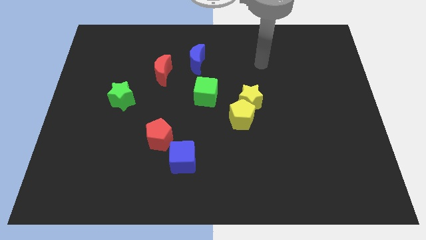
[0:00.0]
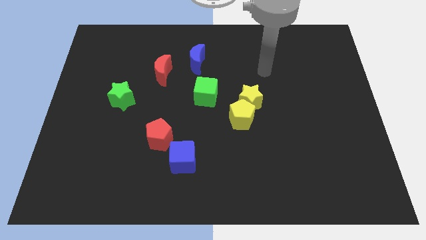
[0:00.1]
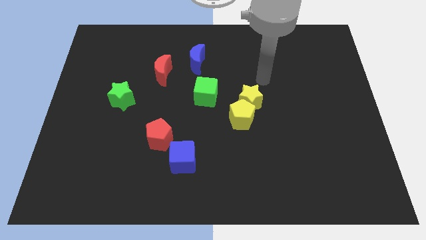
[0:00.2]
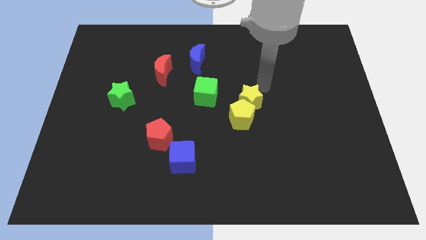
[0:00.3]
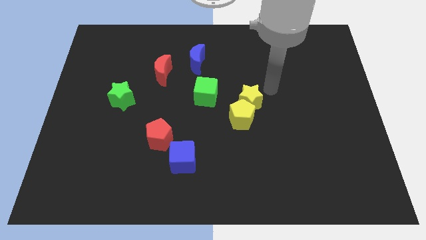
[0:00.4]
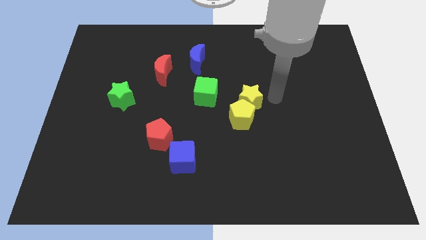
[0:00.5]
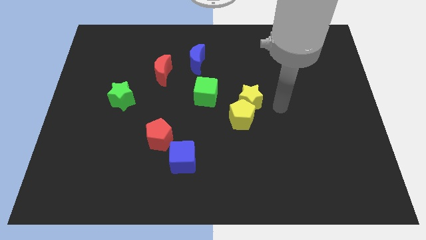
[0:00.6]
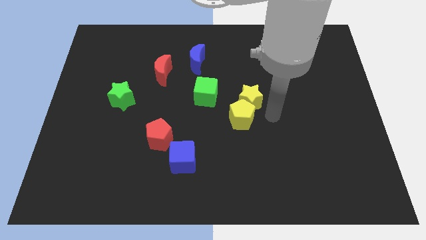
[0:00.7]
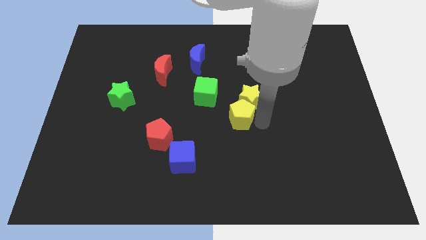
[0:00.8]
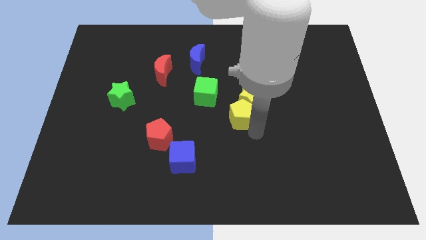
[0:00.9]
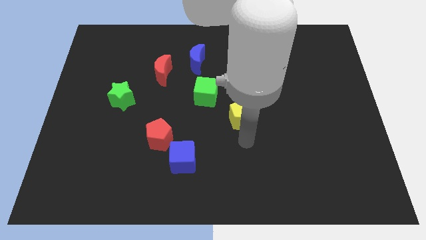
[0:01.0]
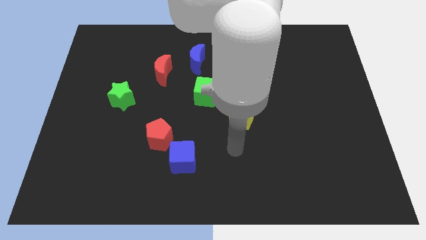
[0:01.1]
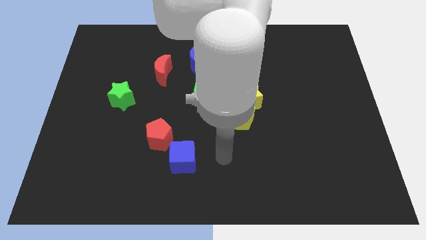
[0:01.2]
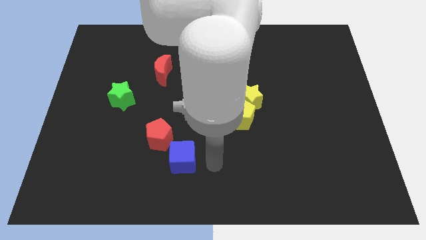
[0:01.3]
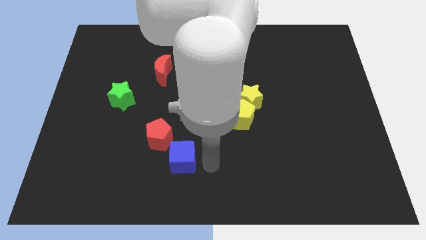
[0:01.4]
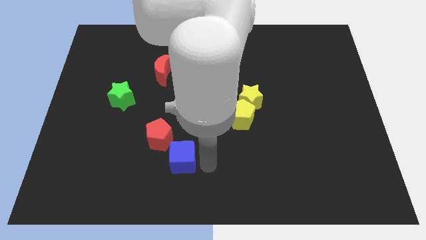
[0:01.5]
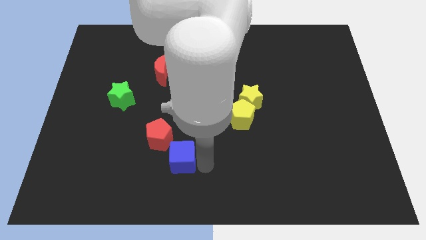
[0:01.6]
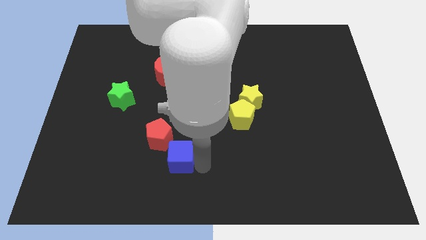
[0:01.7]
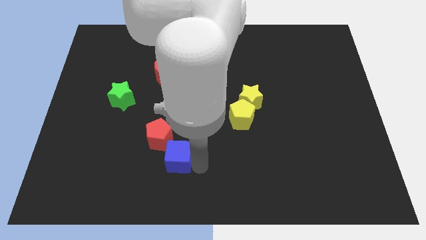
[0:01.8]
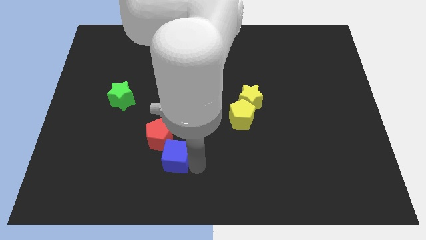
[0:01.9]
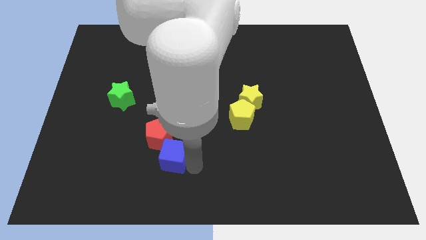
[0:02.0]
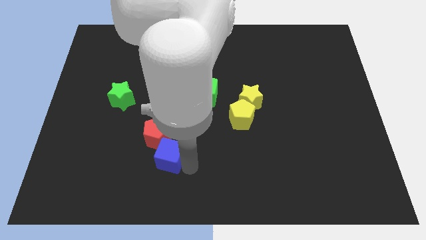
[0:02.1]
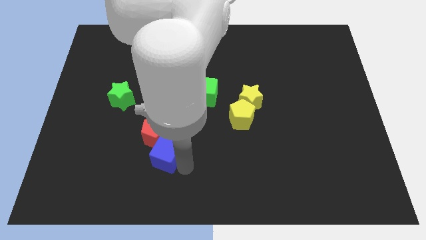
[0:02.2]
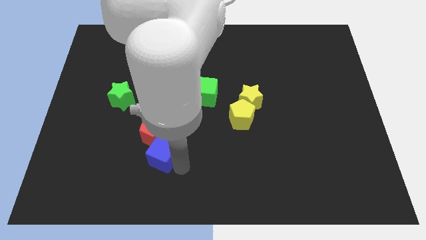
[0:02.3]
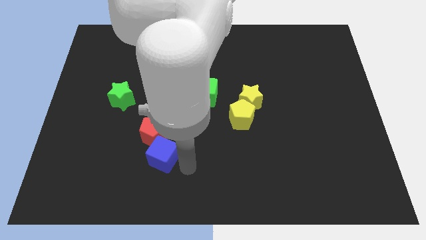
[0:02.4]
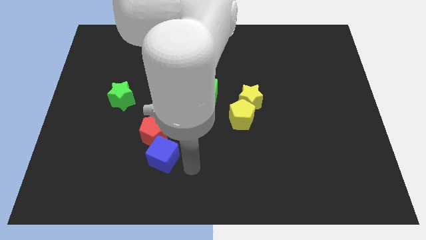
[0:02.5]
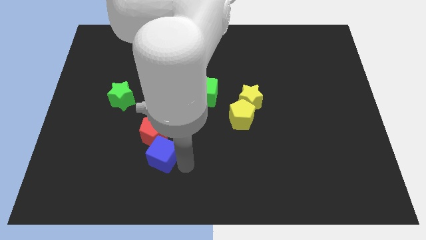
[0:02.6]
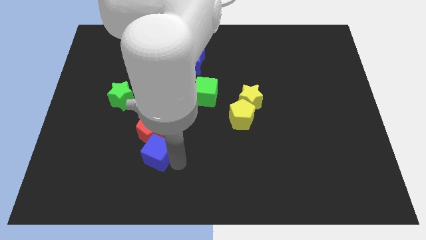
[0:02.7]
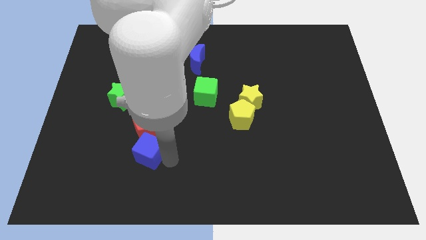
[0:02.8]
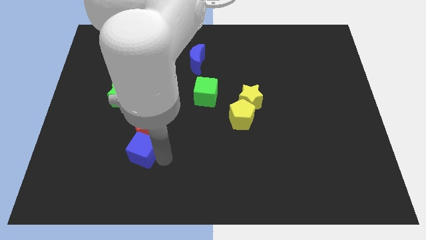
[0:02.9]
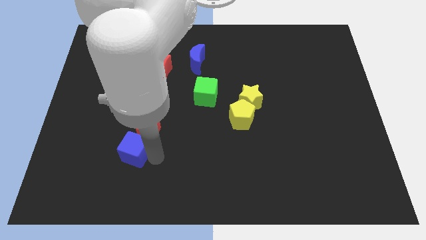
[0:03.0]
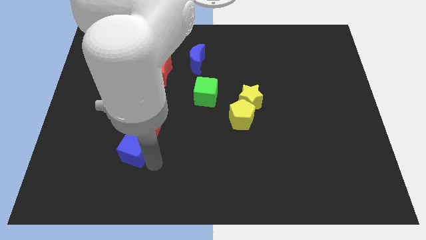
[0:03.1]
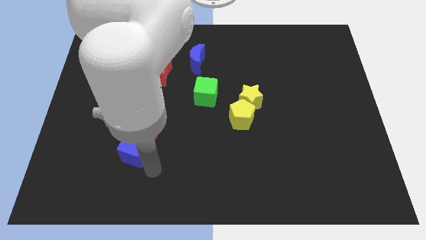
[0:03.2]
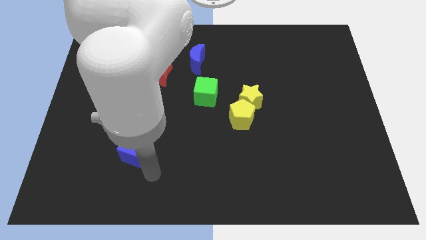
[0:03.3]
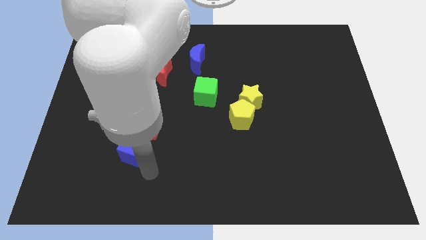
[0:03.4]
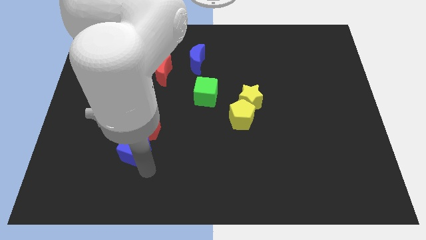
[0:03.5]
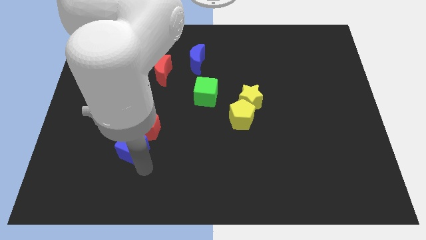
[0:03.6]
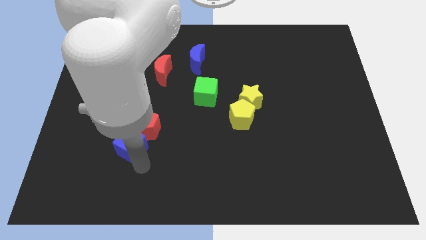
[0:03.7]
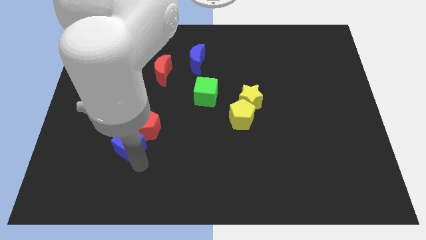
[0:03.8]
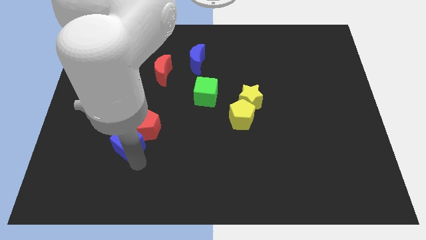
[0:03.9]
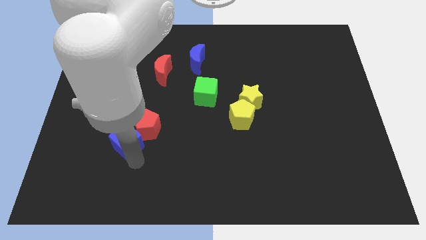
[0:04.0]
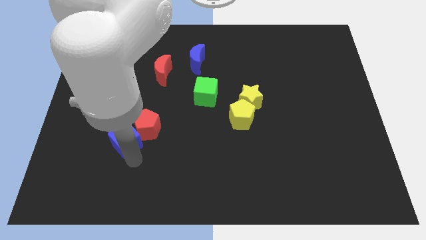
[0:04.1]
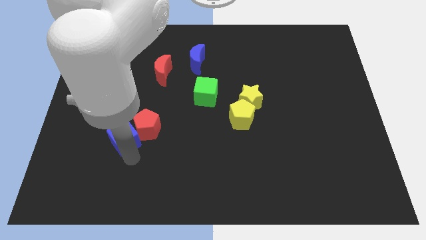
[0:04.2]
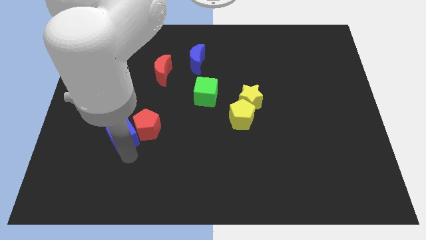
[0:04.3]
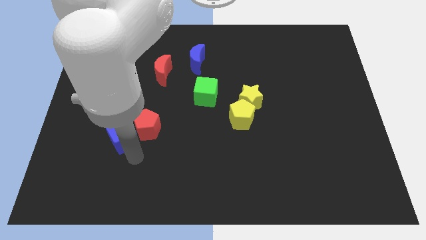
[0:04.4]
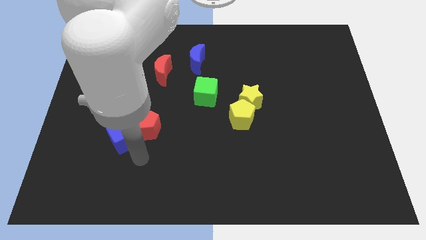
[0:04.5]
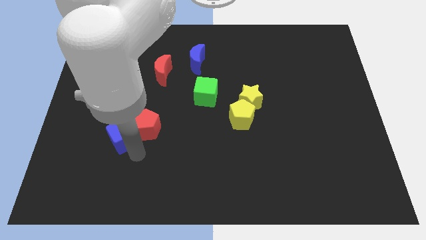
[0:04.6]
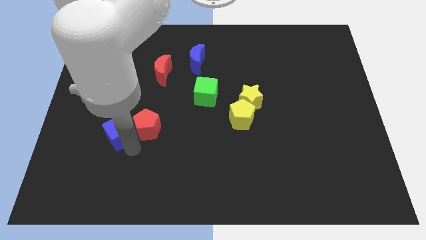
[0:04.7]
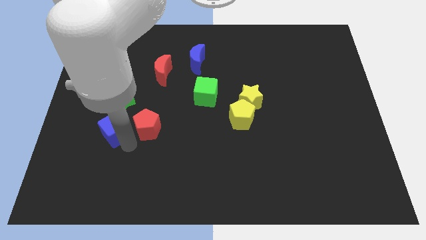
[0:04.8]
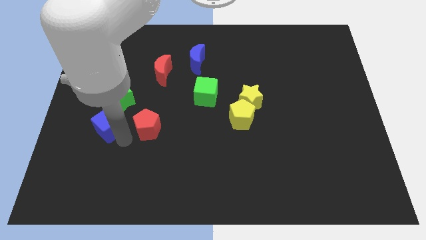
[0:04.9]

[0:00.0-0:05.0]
move the blue cube to the bottom left of the green star

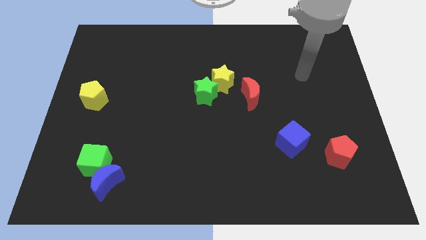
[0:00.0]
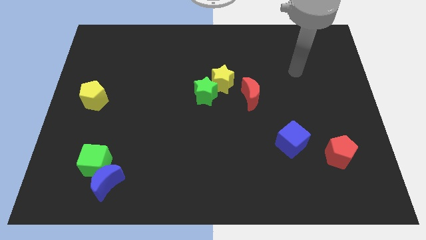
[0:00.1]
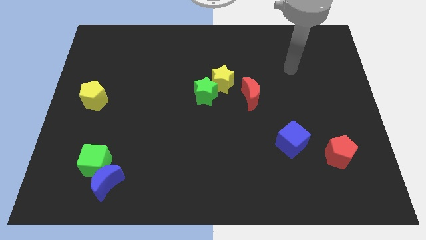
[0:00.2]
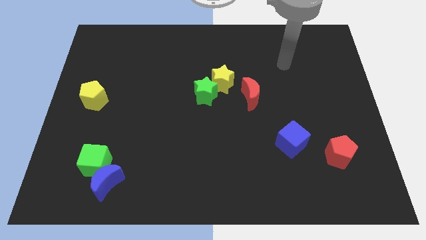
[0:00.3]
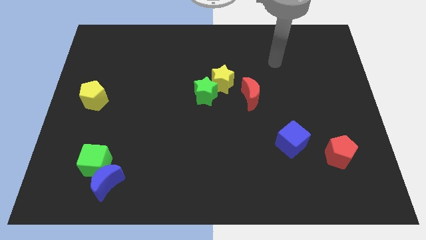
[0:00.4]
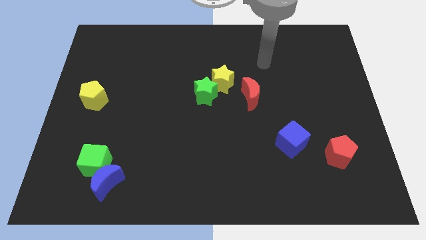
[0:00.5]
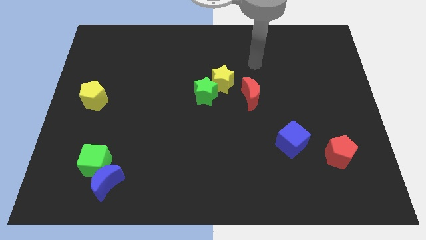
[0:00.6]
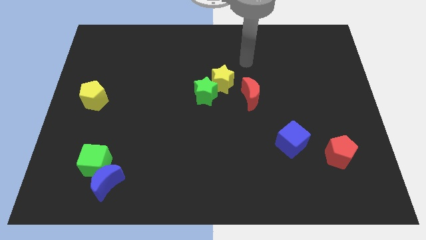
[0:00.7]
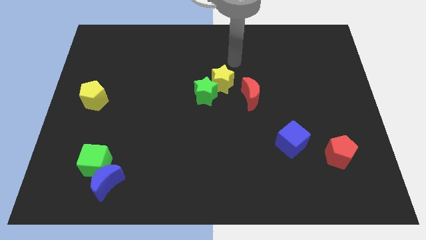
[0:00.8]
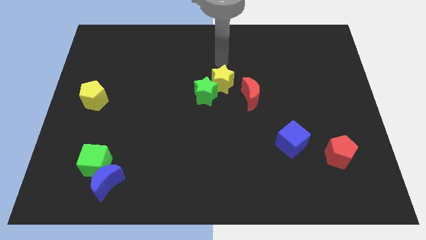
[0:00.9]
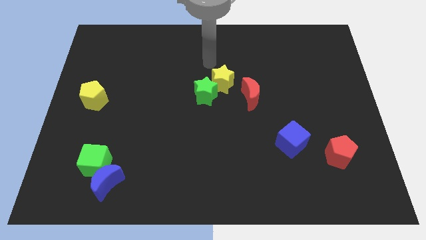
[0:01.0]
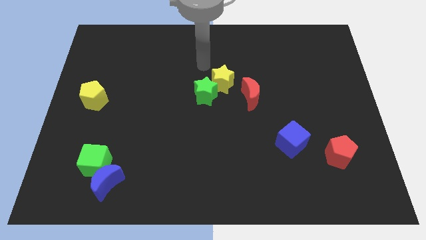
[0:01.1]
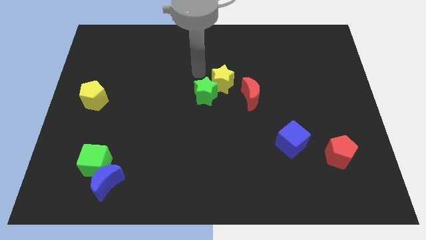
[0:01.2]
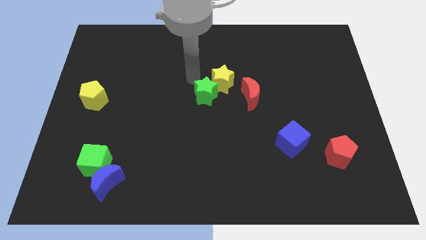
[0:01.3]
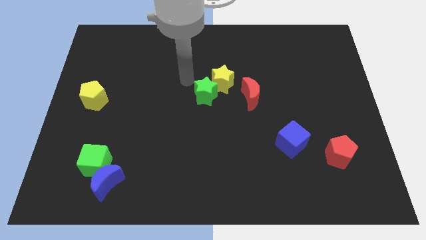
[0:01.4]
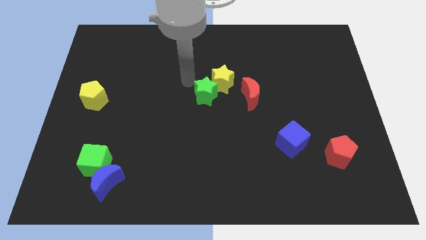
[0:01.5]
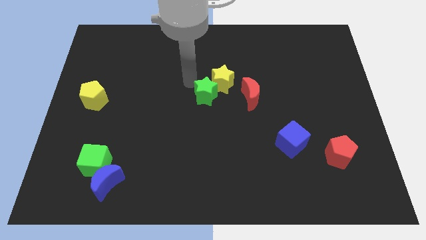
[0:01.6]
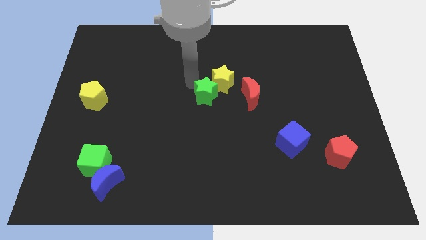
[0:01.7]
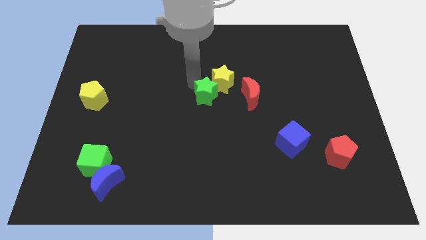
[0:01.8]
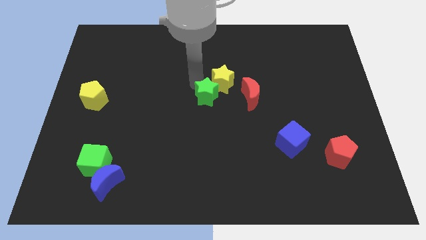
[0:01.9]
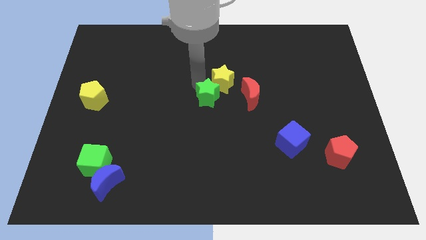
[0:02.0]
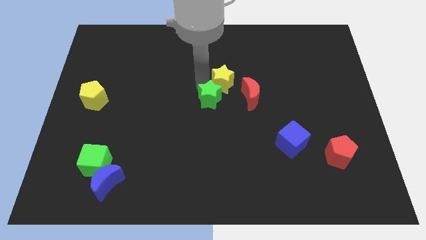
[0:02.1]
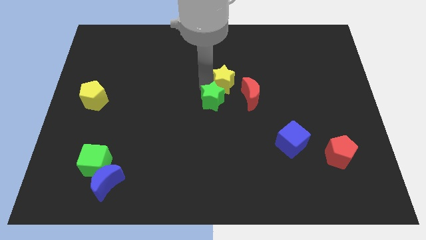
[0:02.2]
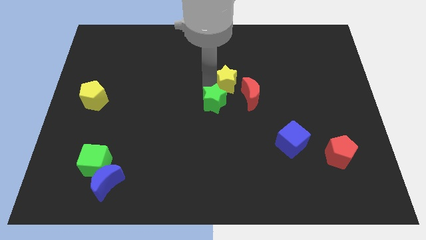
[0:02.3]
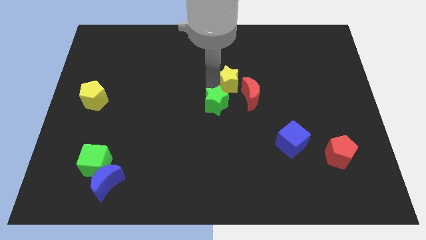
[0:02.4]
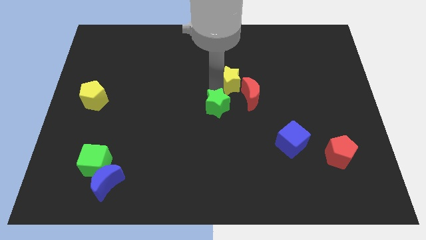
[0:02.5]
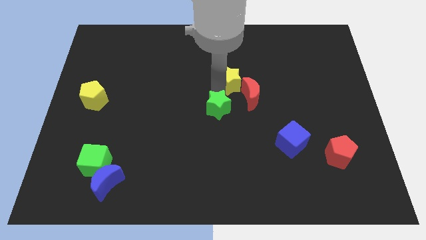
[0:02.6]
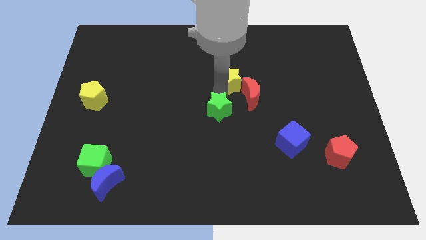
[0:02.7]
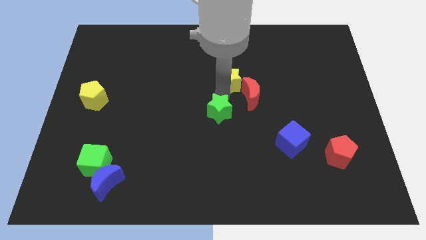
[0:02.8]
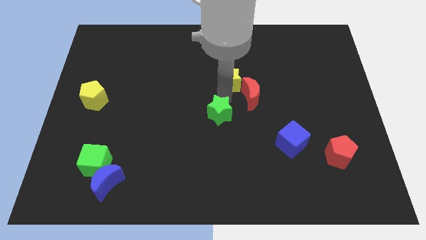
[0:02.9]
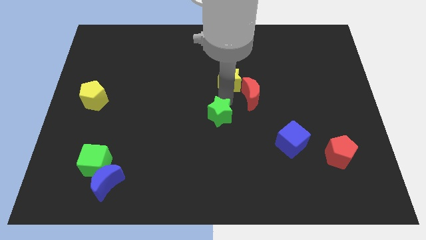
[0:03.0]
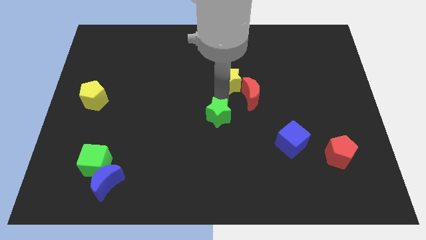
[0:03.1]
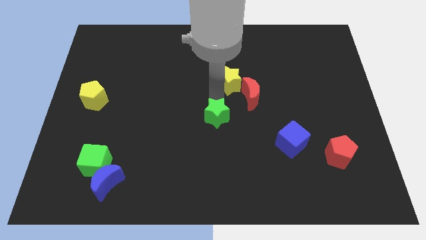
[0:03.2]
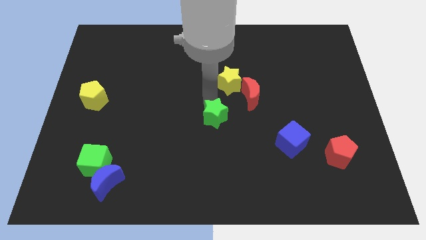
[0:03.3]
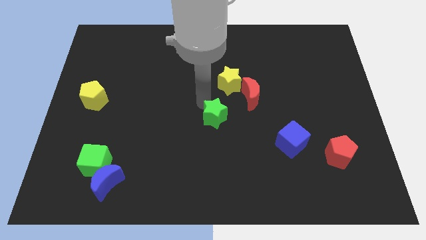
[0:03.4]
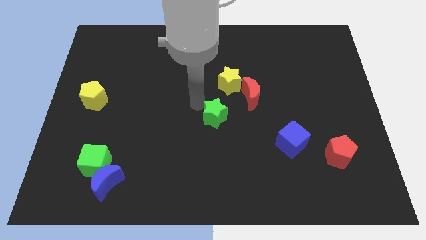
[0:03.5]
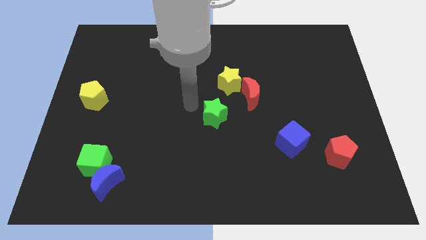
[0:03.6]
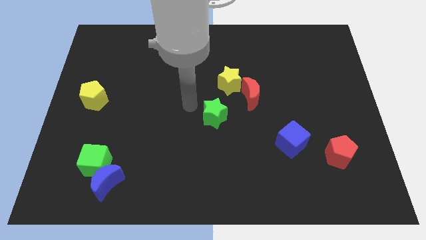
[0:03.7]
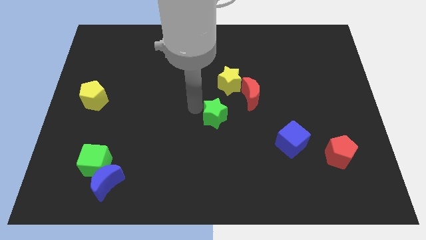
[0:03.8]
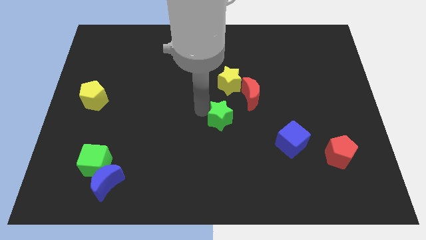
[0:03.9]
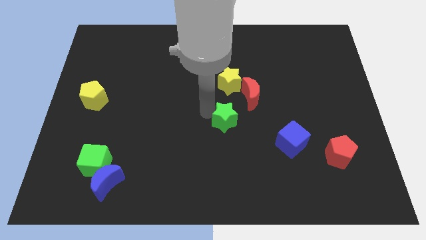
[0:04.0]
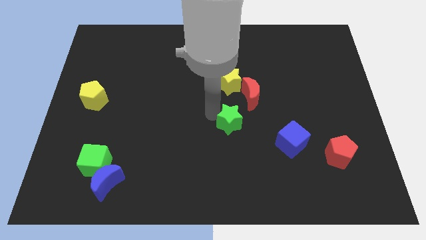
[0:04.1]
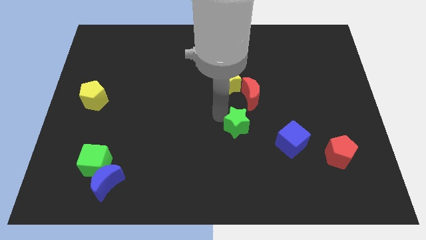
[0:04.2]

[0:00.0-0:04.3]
push the green star to the left side of the blue cube
